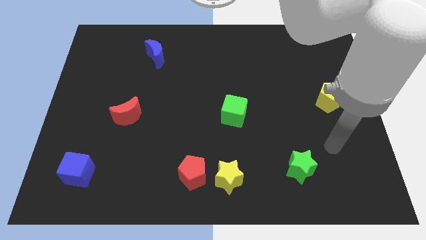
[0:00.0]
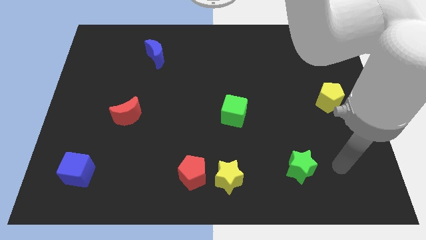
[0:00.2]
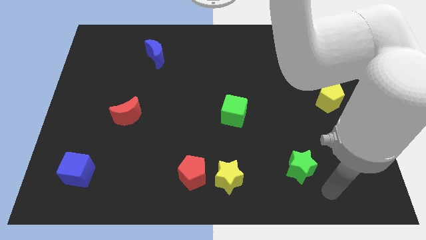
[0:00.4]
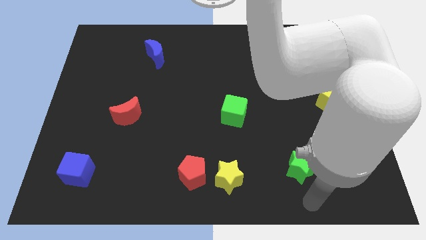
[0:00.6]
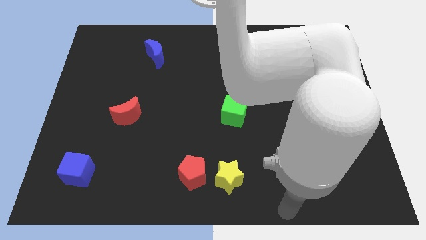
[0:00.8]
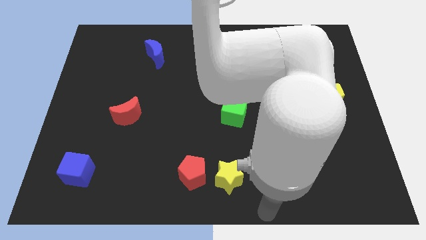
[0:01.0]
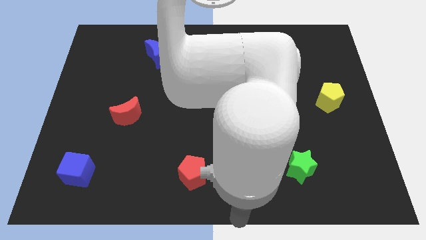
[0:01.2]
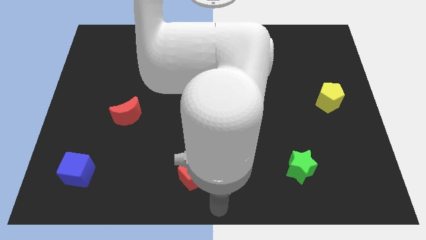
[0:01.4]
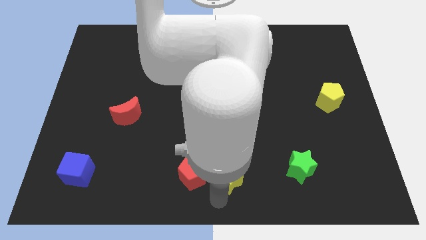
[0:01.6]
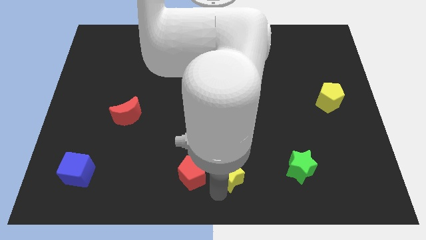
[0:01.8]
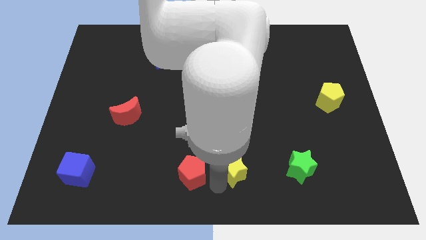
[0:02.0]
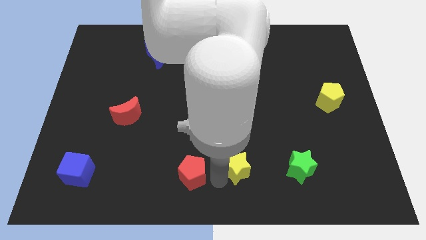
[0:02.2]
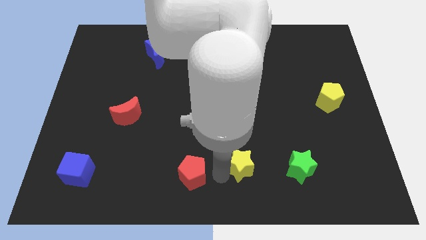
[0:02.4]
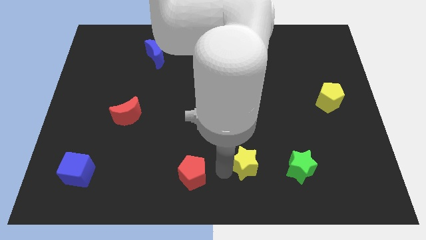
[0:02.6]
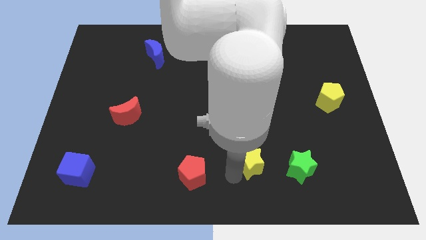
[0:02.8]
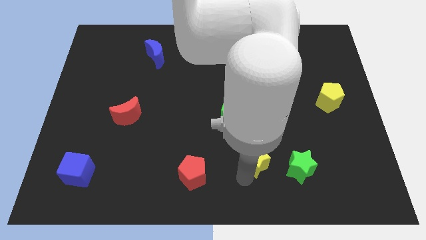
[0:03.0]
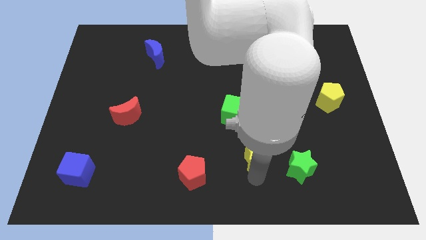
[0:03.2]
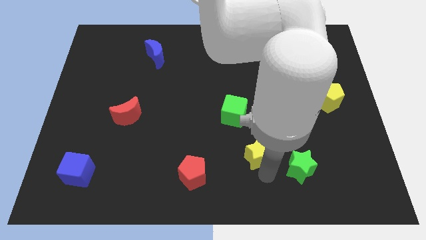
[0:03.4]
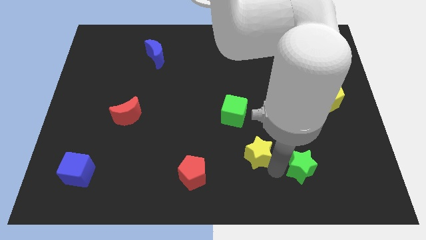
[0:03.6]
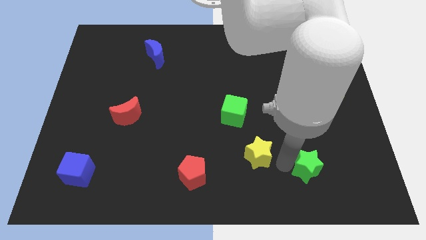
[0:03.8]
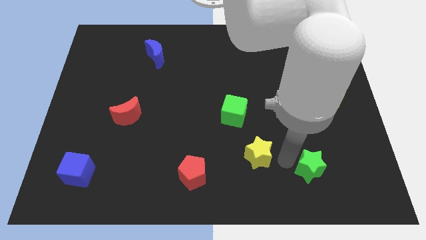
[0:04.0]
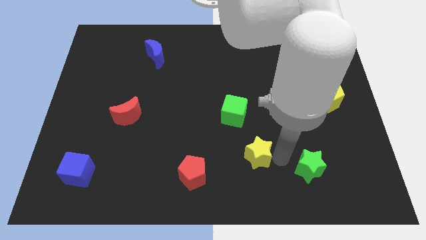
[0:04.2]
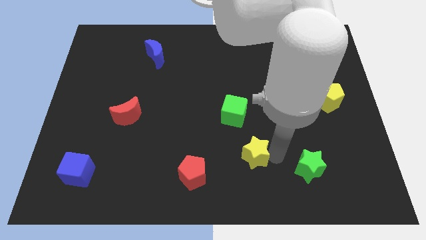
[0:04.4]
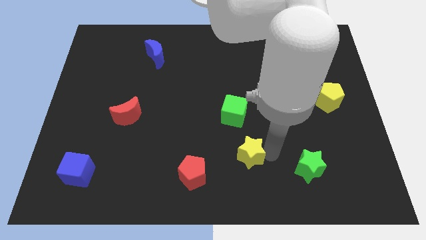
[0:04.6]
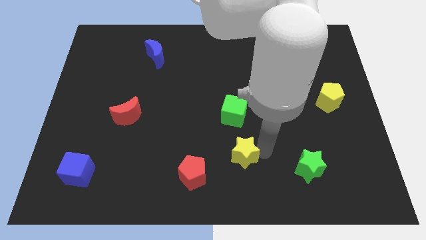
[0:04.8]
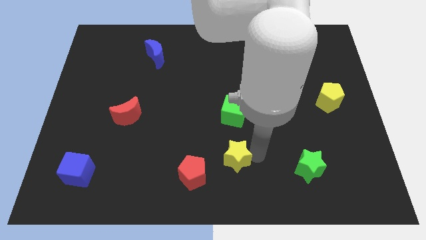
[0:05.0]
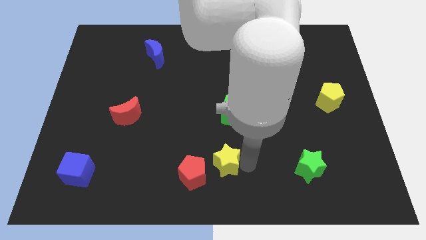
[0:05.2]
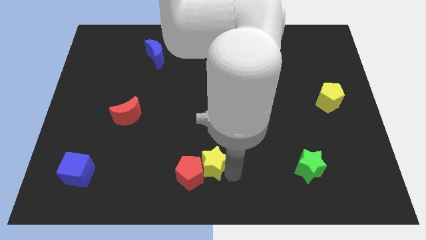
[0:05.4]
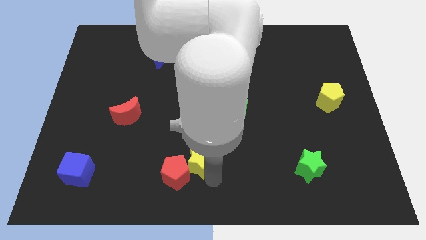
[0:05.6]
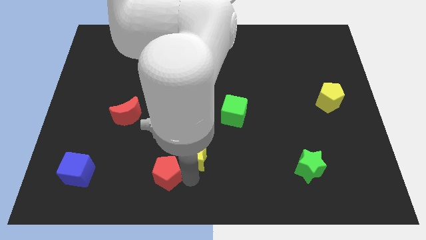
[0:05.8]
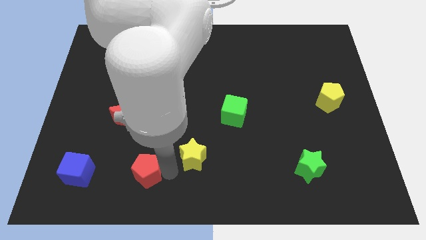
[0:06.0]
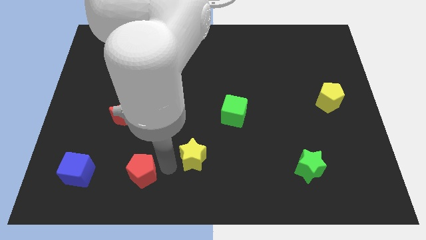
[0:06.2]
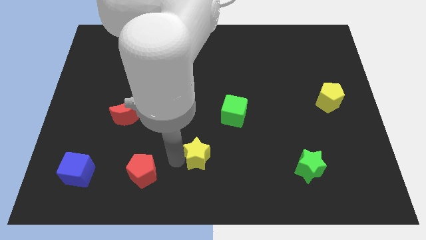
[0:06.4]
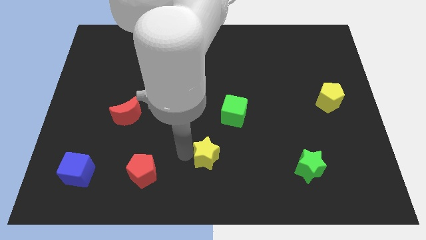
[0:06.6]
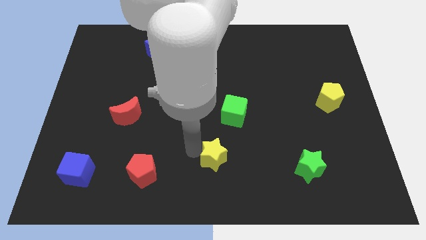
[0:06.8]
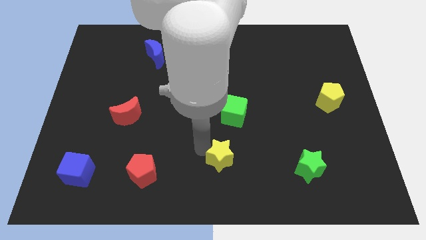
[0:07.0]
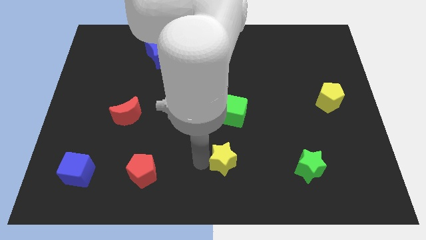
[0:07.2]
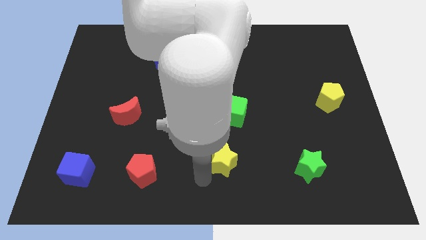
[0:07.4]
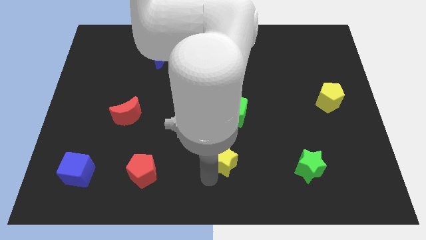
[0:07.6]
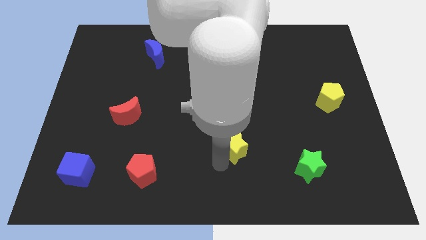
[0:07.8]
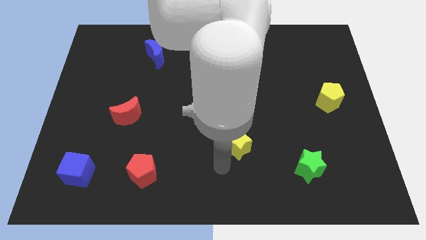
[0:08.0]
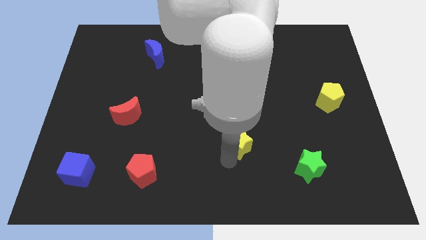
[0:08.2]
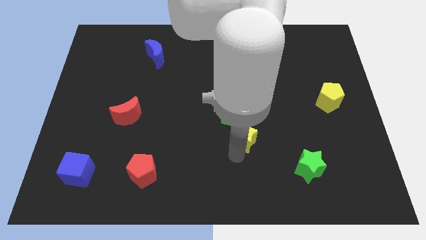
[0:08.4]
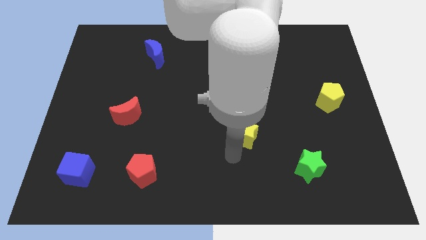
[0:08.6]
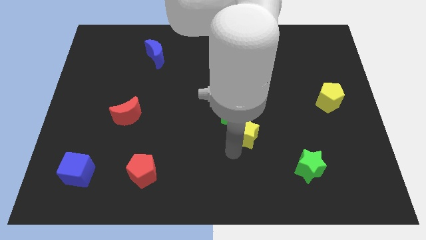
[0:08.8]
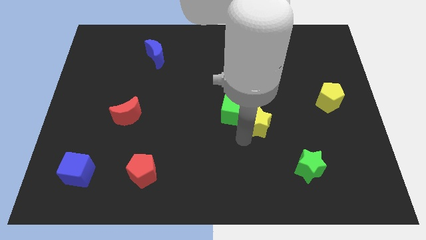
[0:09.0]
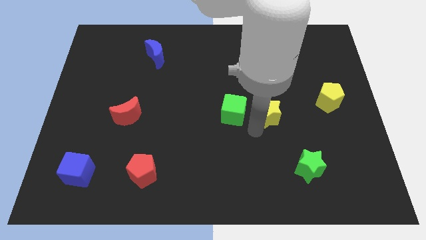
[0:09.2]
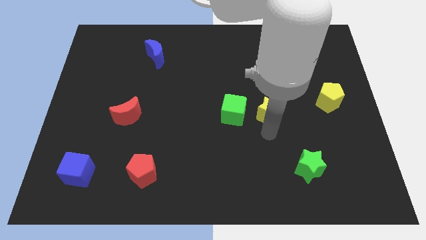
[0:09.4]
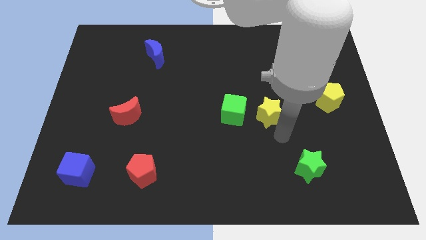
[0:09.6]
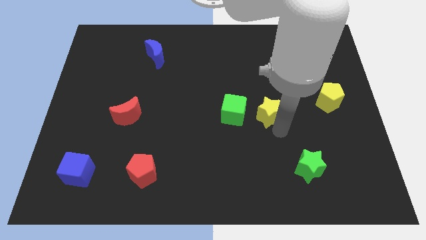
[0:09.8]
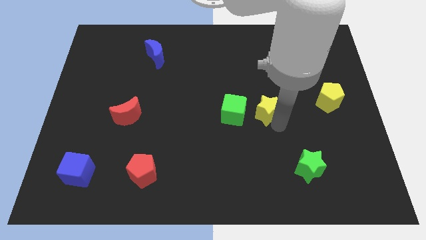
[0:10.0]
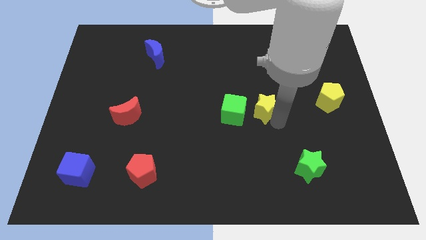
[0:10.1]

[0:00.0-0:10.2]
put the yellow star to the top right of the green cube

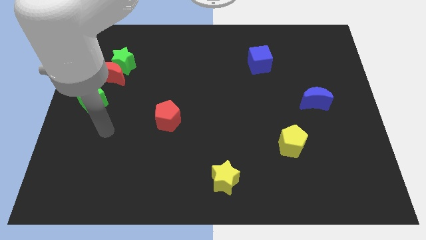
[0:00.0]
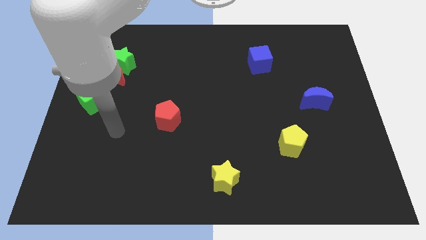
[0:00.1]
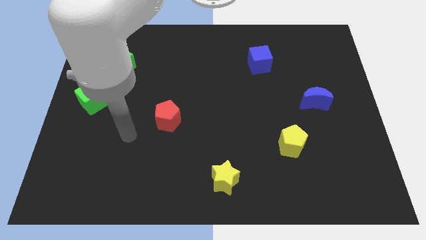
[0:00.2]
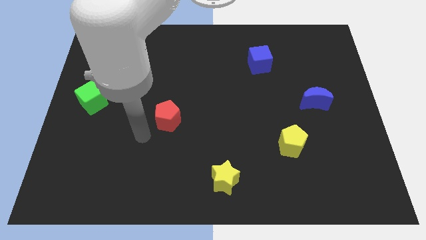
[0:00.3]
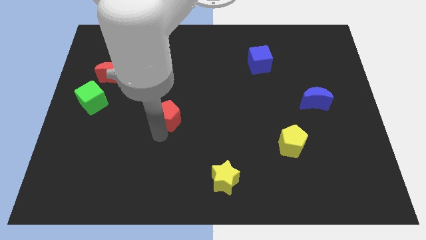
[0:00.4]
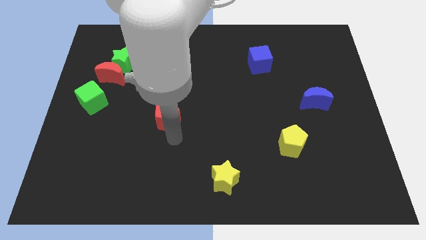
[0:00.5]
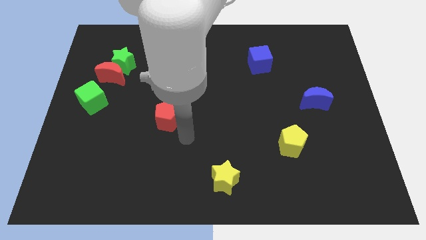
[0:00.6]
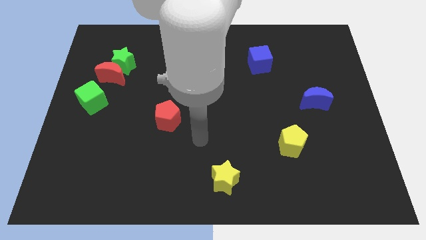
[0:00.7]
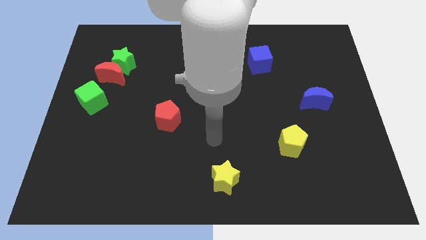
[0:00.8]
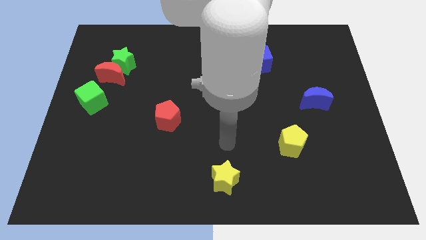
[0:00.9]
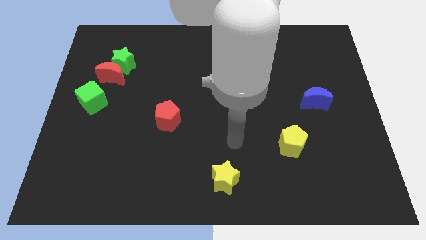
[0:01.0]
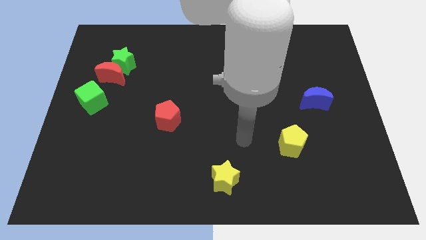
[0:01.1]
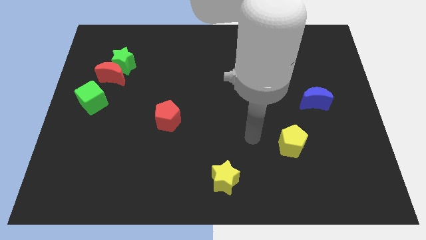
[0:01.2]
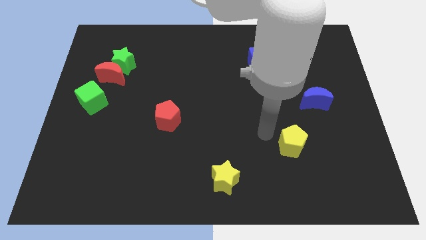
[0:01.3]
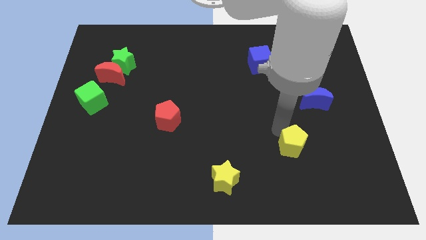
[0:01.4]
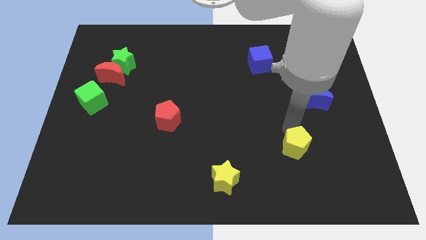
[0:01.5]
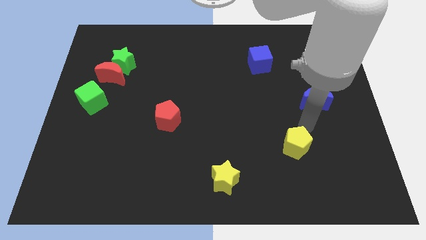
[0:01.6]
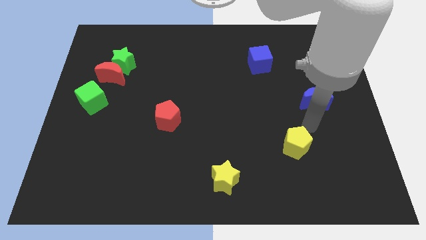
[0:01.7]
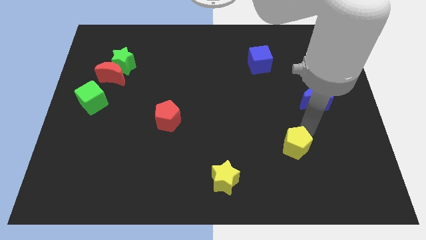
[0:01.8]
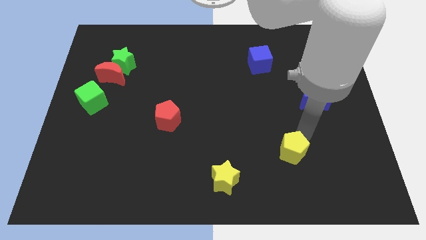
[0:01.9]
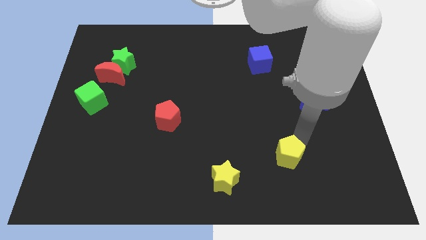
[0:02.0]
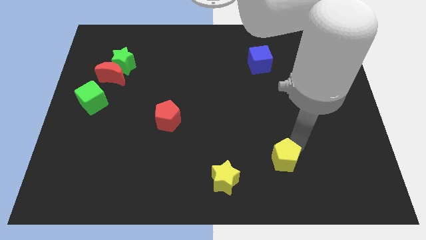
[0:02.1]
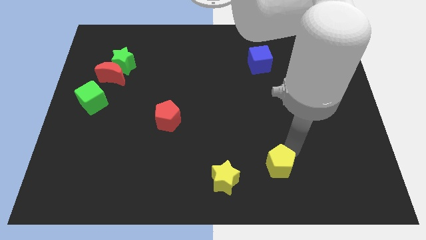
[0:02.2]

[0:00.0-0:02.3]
put the yellow pentagon to the right side of the yellow star
